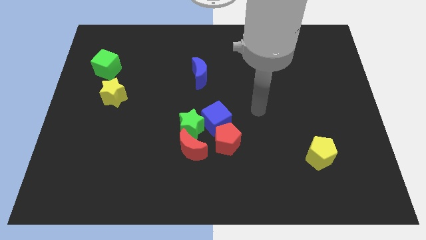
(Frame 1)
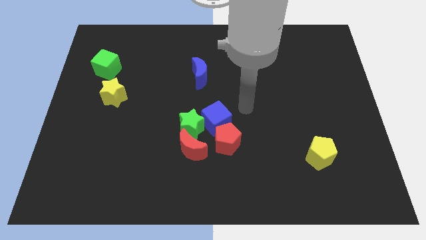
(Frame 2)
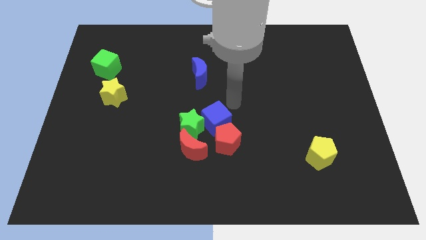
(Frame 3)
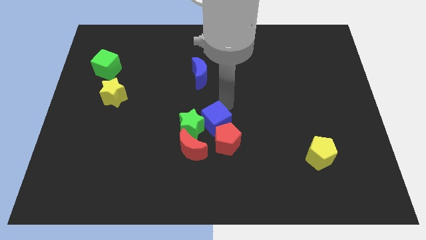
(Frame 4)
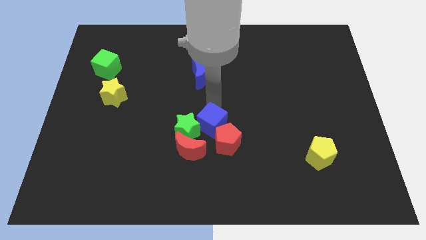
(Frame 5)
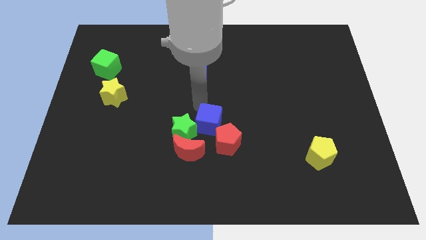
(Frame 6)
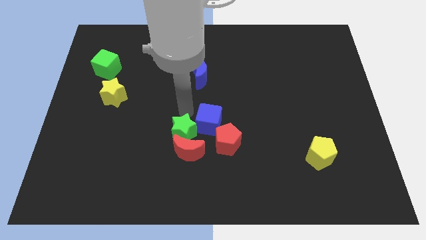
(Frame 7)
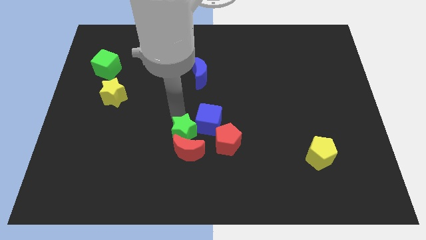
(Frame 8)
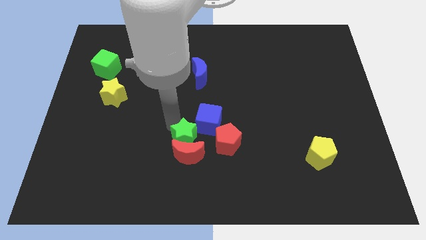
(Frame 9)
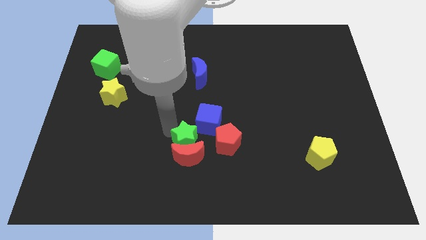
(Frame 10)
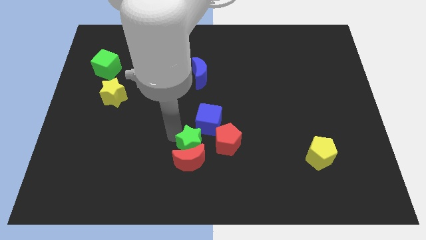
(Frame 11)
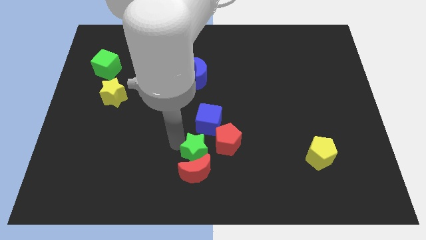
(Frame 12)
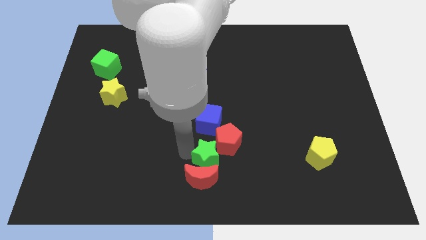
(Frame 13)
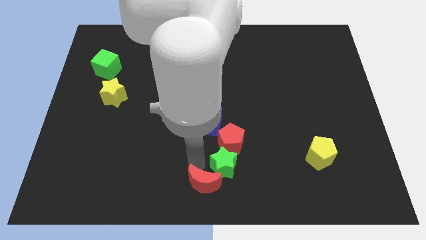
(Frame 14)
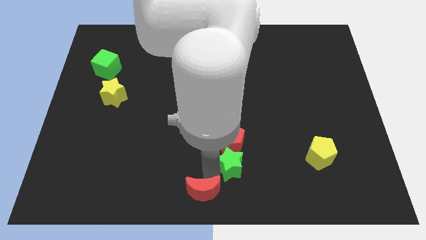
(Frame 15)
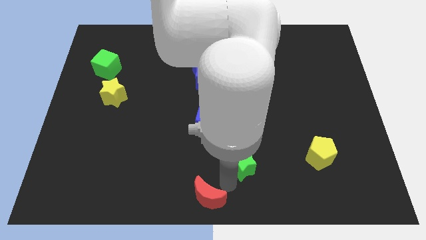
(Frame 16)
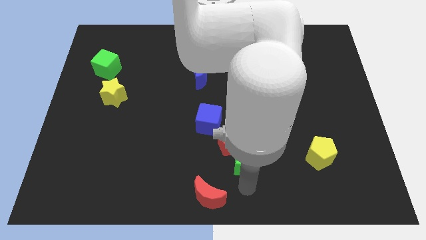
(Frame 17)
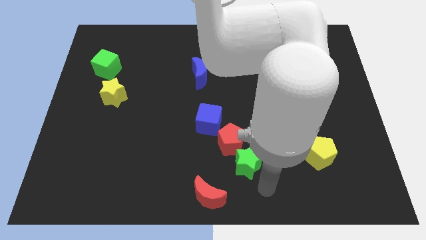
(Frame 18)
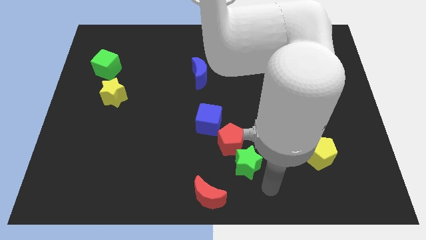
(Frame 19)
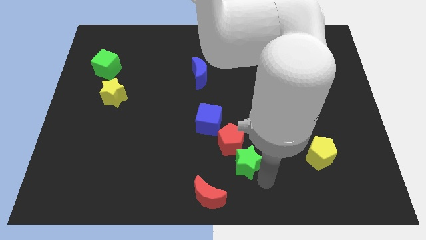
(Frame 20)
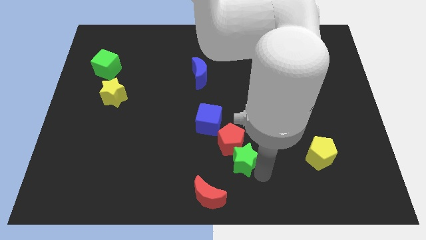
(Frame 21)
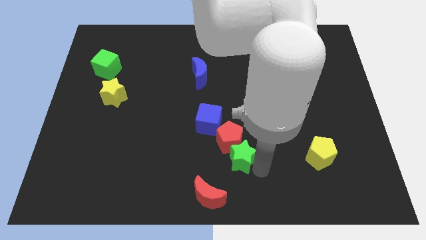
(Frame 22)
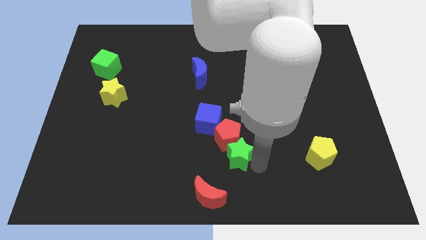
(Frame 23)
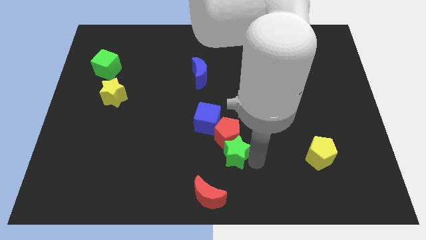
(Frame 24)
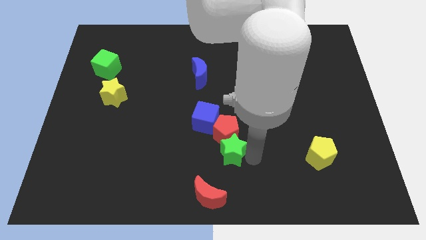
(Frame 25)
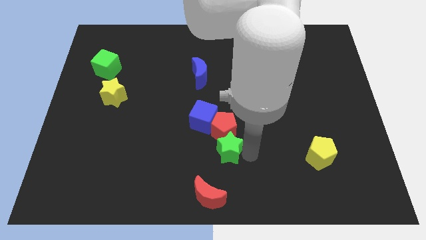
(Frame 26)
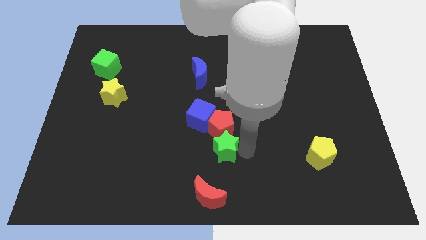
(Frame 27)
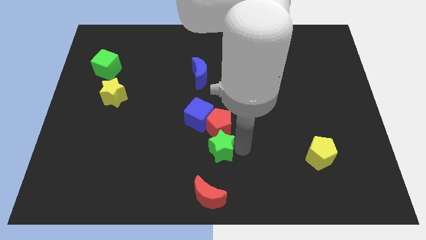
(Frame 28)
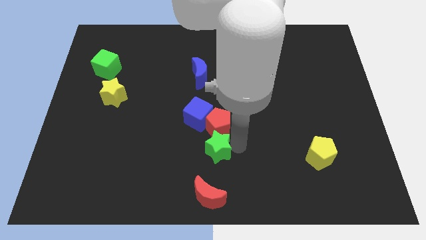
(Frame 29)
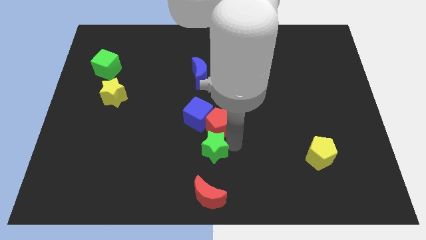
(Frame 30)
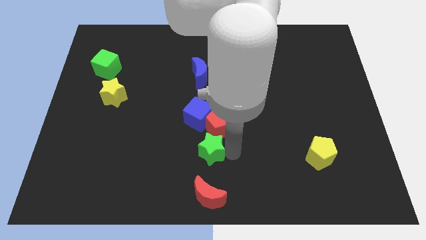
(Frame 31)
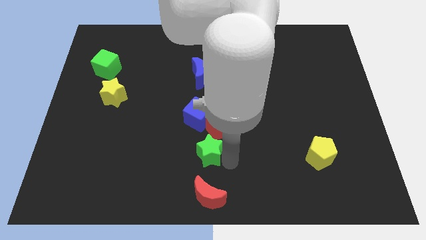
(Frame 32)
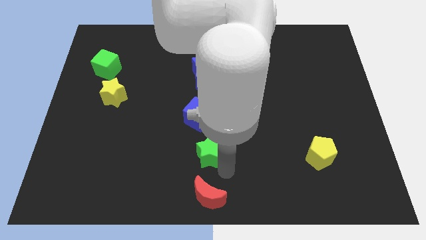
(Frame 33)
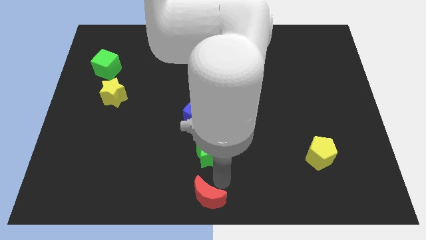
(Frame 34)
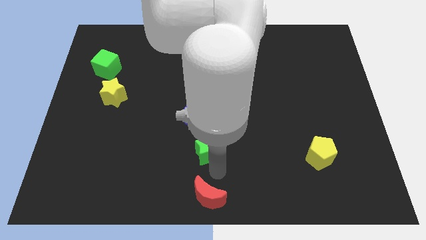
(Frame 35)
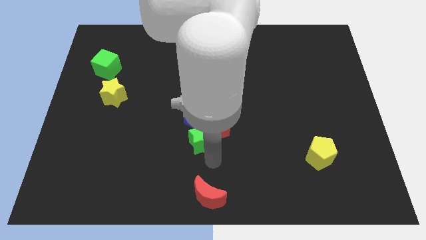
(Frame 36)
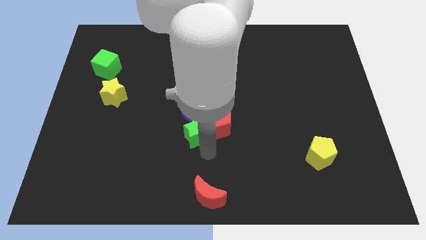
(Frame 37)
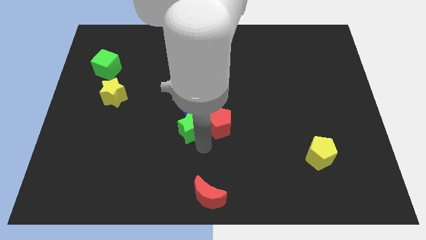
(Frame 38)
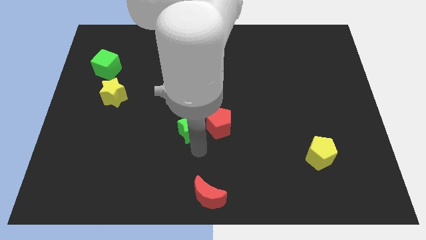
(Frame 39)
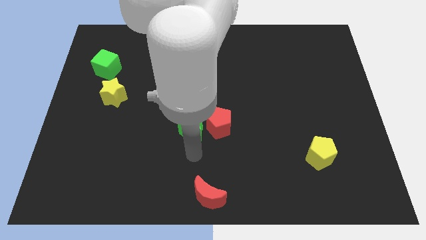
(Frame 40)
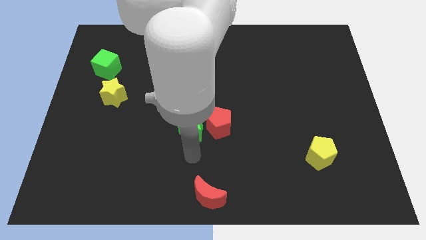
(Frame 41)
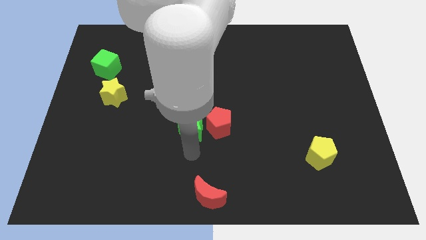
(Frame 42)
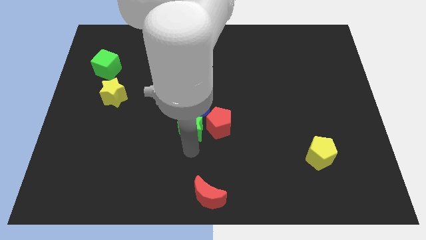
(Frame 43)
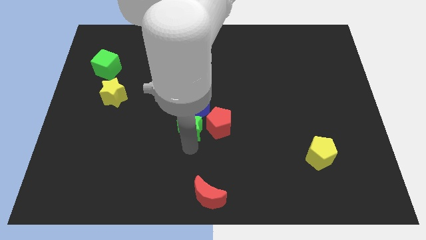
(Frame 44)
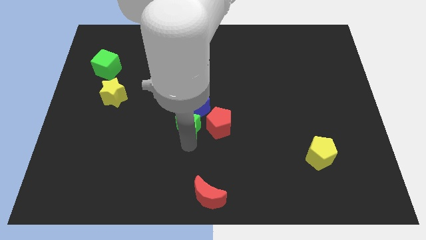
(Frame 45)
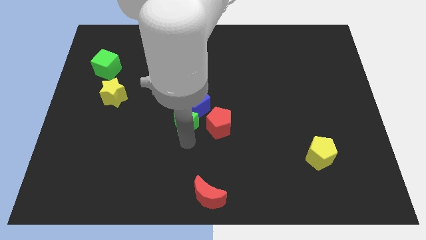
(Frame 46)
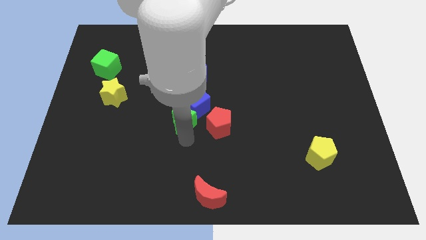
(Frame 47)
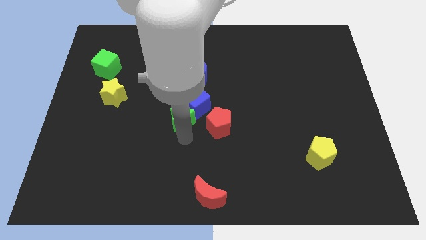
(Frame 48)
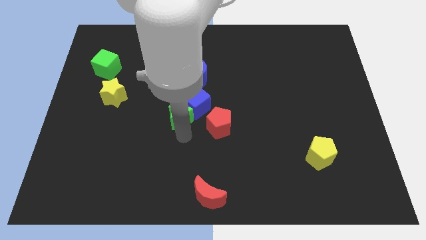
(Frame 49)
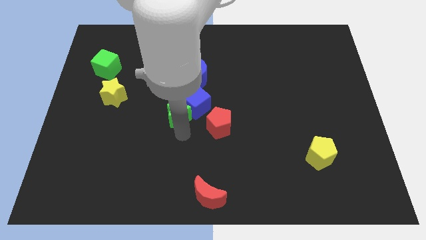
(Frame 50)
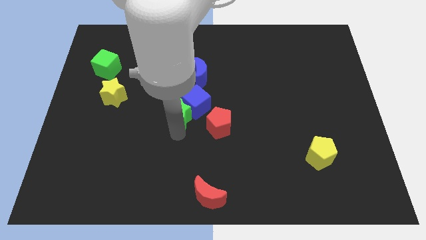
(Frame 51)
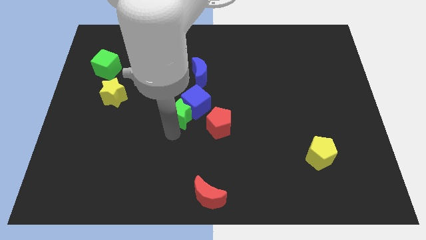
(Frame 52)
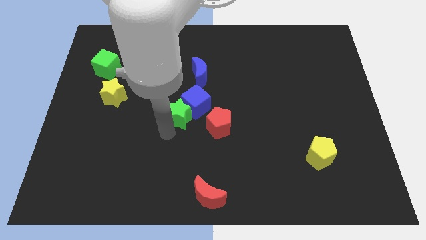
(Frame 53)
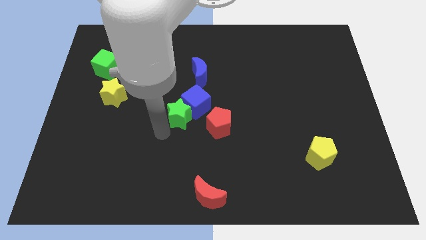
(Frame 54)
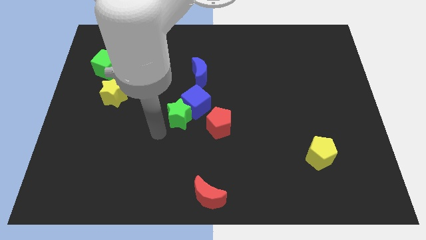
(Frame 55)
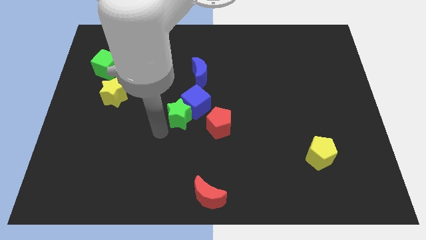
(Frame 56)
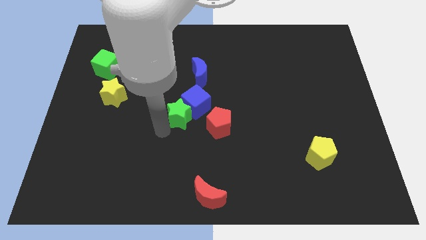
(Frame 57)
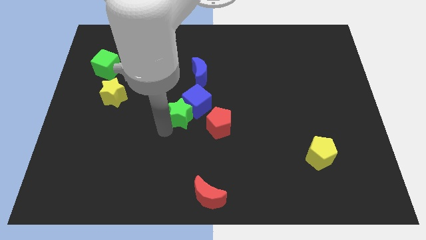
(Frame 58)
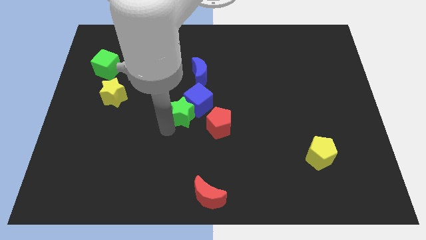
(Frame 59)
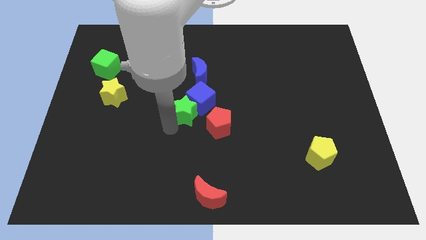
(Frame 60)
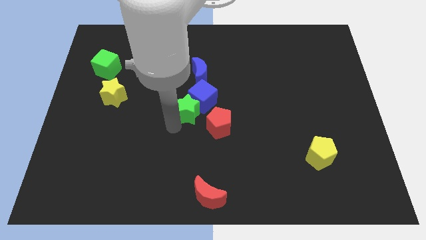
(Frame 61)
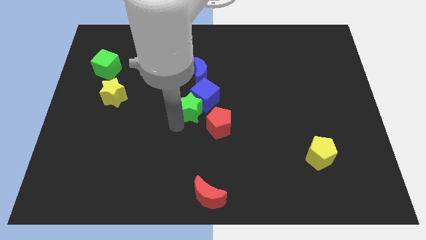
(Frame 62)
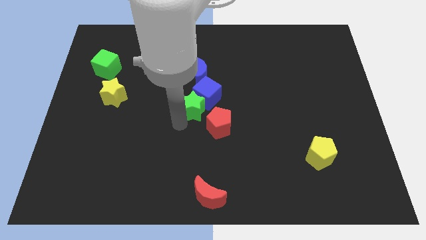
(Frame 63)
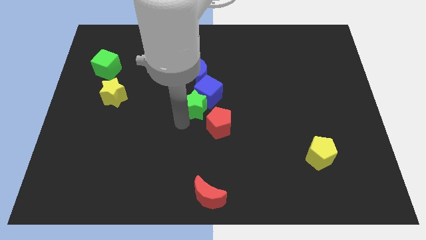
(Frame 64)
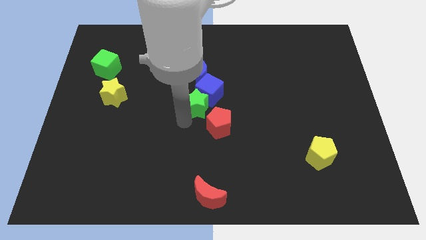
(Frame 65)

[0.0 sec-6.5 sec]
slide the green star to the top side of the red pentagon

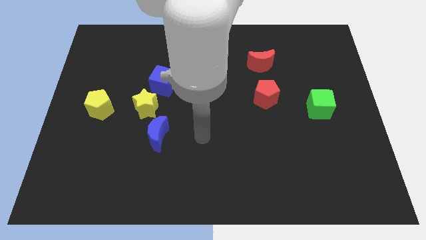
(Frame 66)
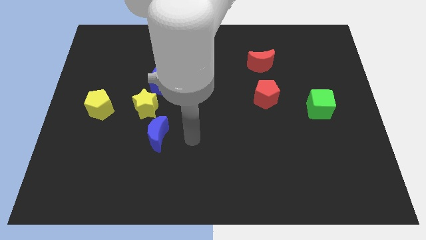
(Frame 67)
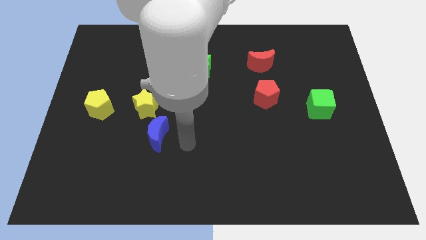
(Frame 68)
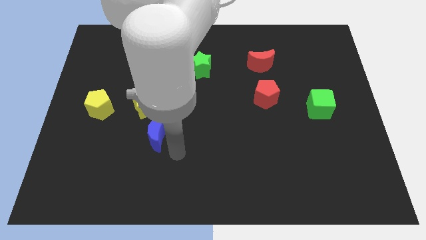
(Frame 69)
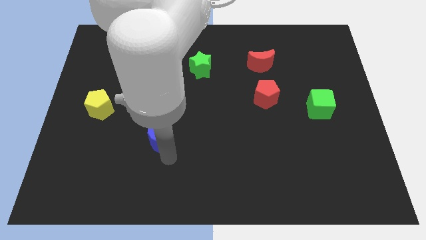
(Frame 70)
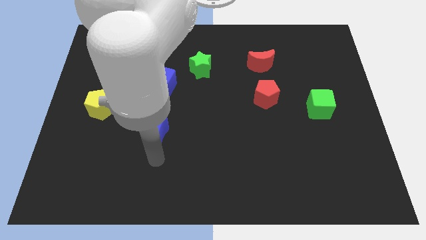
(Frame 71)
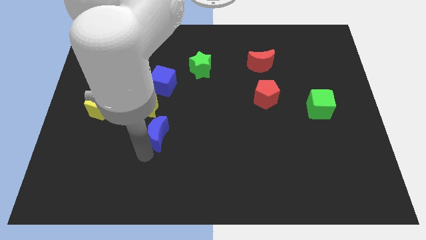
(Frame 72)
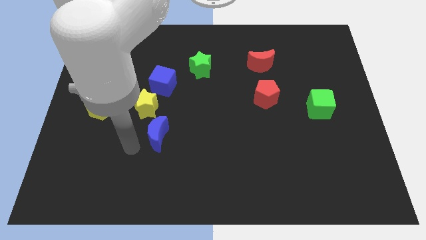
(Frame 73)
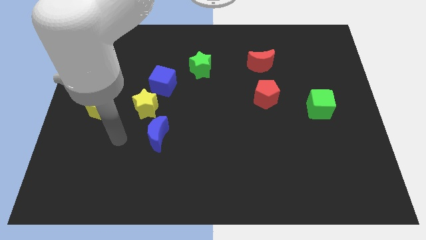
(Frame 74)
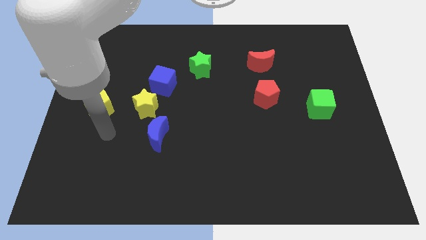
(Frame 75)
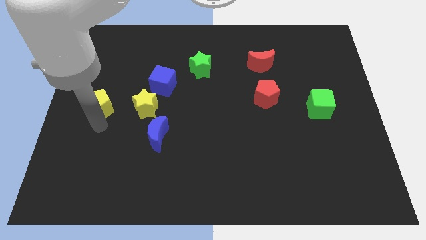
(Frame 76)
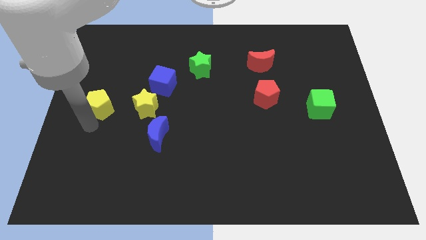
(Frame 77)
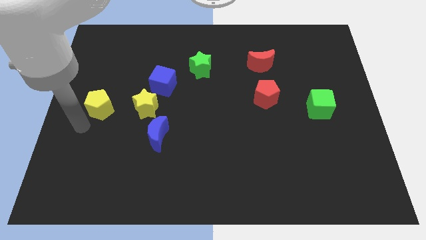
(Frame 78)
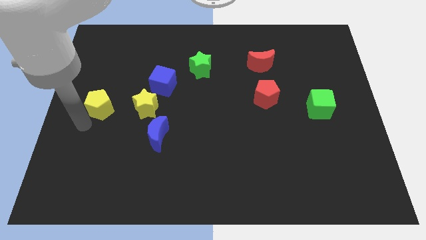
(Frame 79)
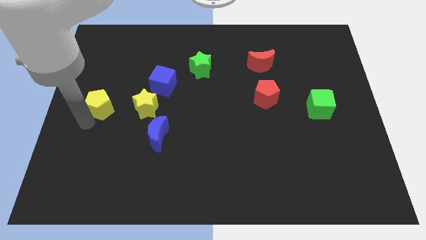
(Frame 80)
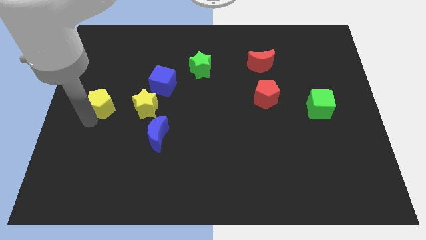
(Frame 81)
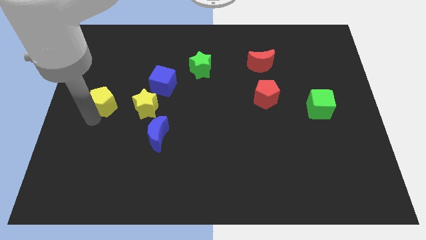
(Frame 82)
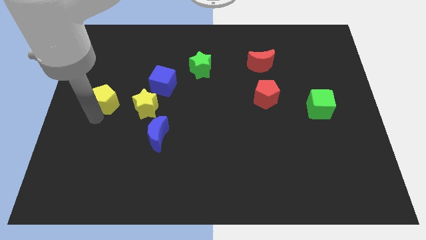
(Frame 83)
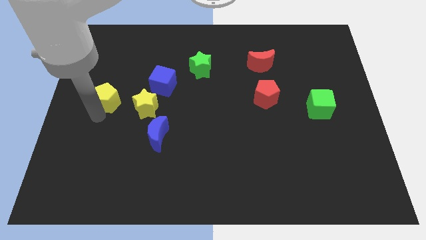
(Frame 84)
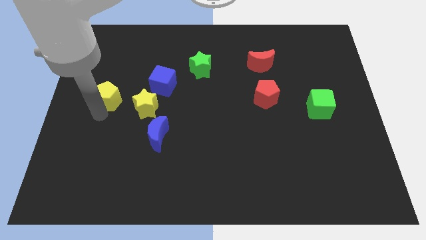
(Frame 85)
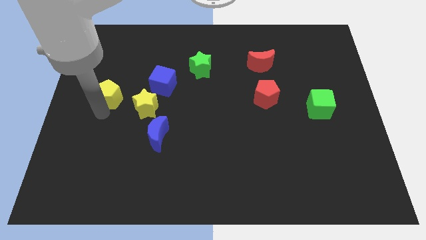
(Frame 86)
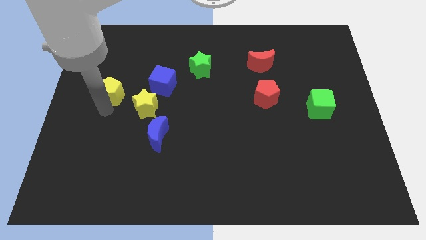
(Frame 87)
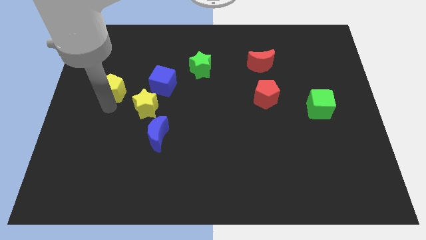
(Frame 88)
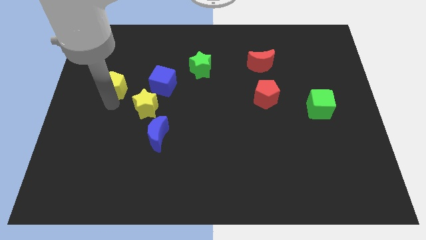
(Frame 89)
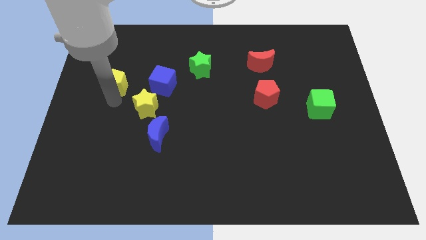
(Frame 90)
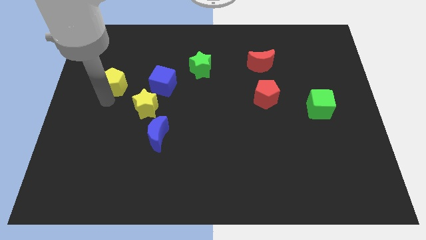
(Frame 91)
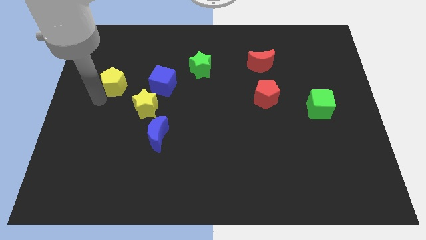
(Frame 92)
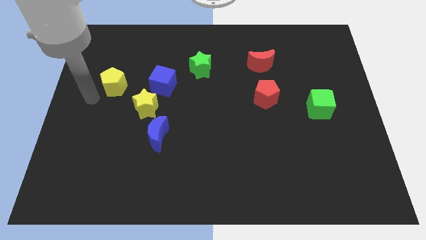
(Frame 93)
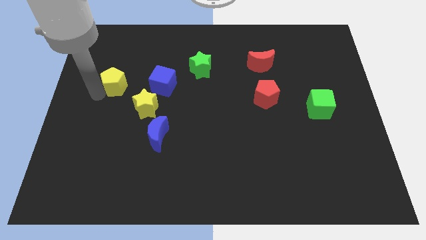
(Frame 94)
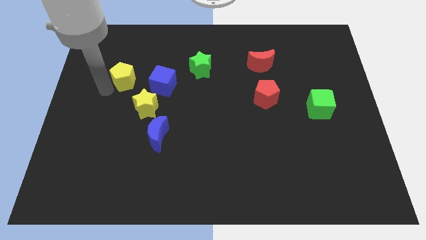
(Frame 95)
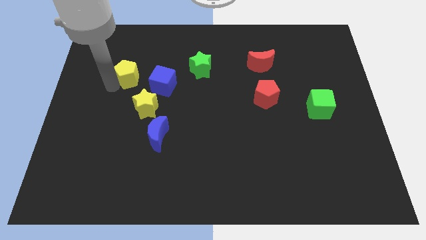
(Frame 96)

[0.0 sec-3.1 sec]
put the yellow pentagon diagonally up and to the left of the blue cube
